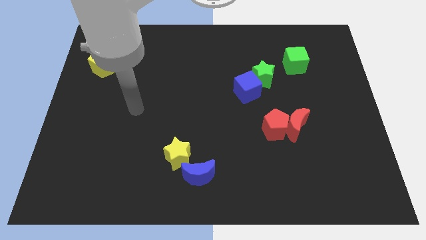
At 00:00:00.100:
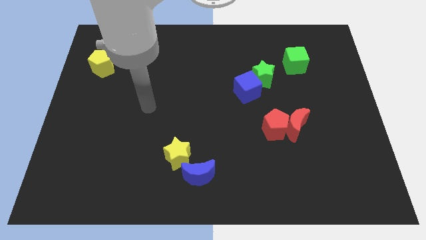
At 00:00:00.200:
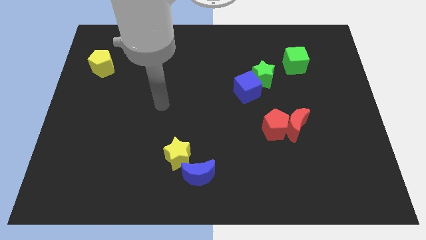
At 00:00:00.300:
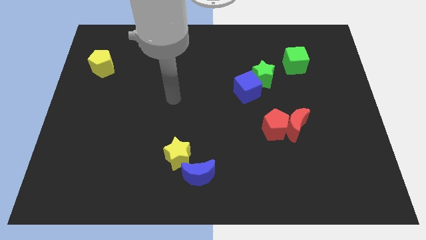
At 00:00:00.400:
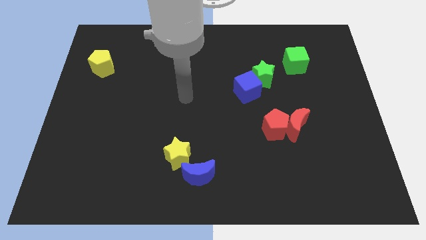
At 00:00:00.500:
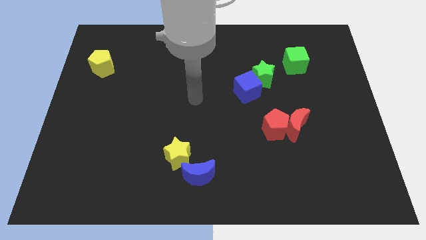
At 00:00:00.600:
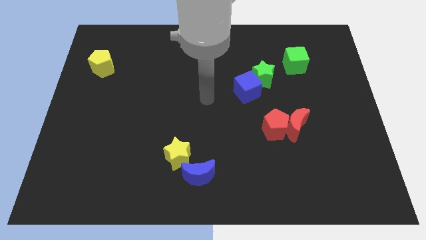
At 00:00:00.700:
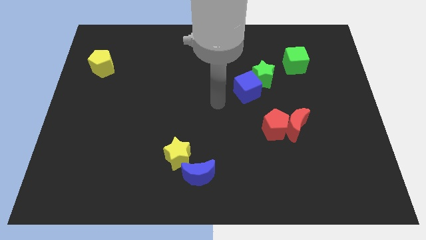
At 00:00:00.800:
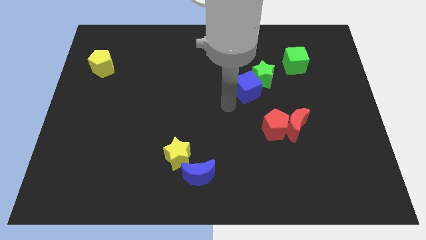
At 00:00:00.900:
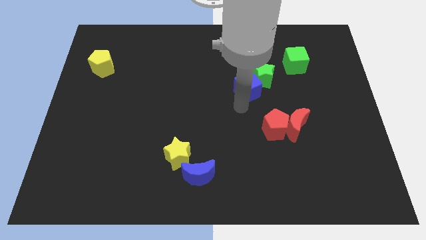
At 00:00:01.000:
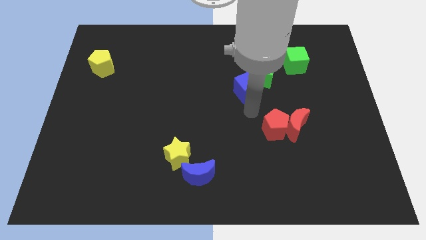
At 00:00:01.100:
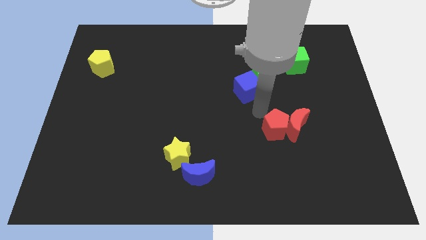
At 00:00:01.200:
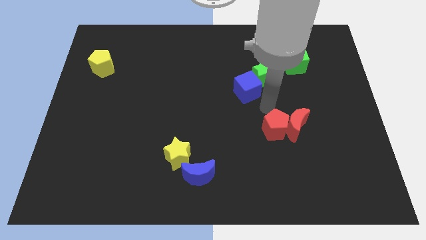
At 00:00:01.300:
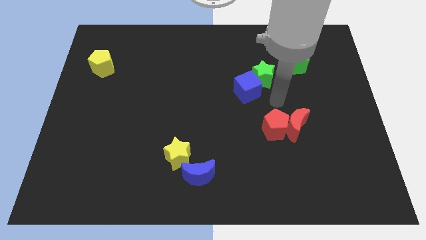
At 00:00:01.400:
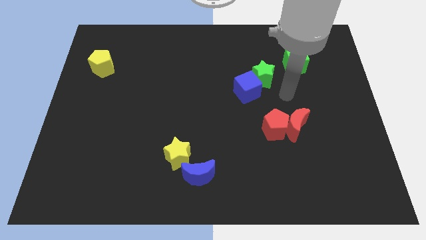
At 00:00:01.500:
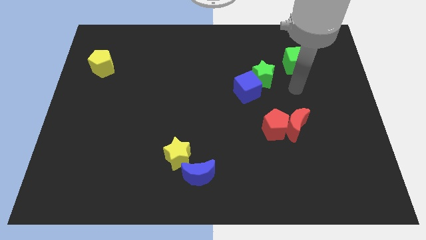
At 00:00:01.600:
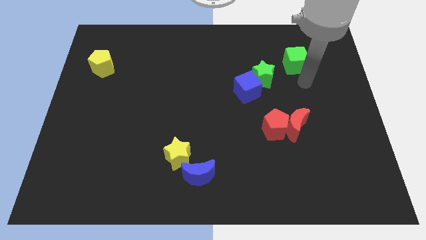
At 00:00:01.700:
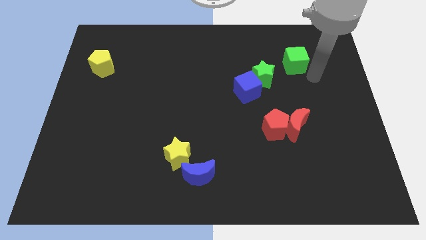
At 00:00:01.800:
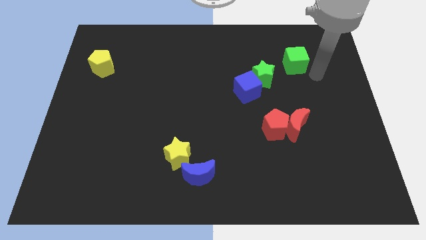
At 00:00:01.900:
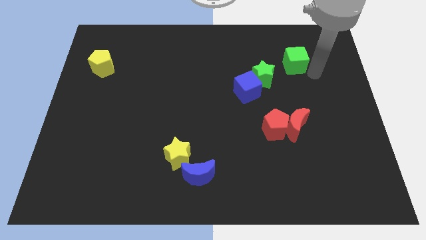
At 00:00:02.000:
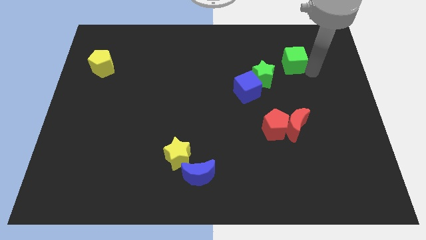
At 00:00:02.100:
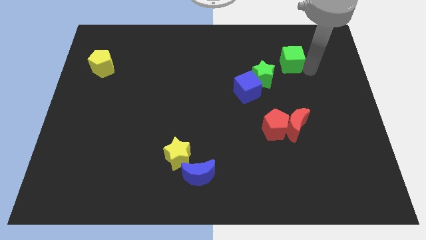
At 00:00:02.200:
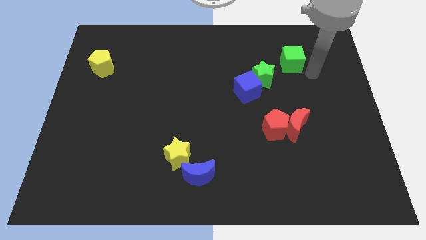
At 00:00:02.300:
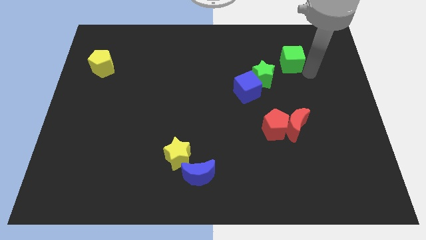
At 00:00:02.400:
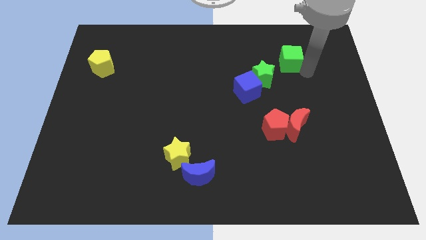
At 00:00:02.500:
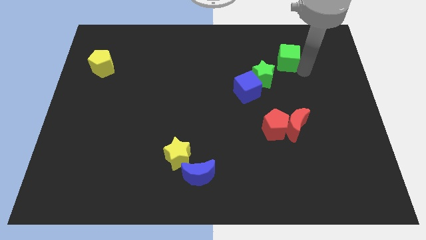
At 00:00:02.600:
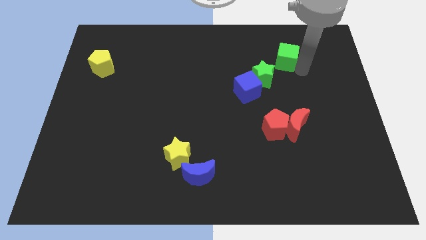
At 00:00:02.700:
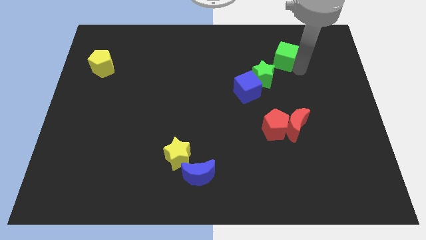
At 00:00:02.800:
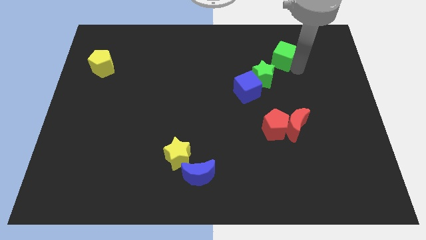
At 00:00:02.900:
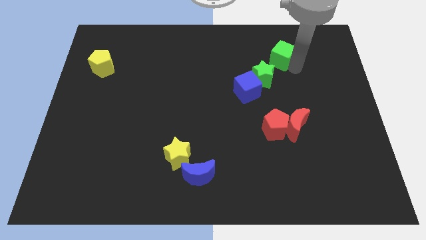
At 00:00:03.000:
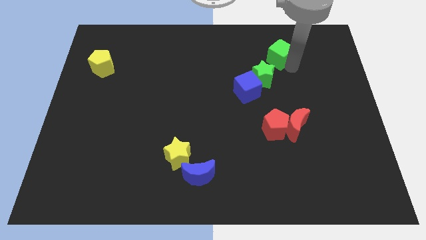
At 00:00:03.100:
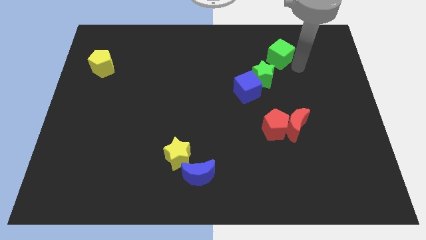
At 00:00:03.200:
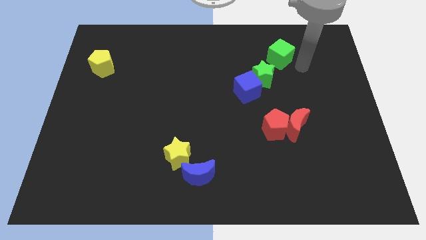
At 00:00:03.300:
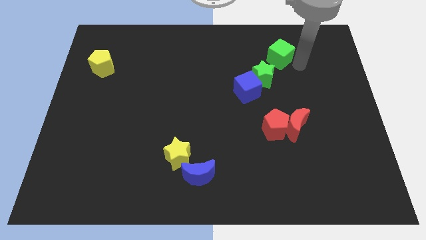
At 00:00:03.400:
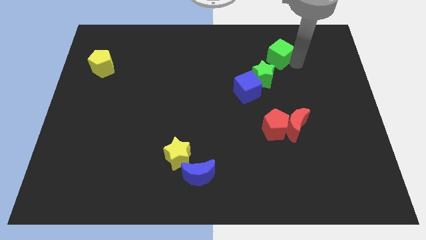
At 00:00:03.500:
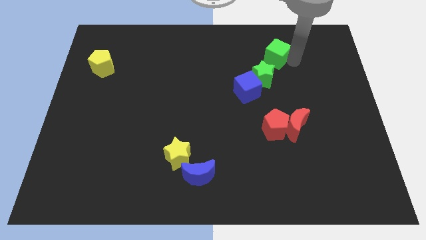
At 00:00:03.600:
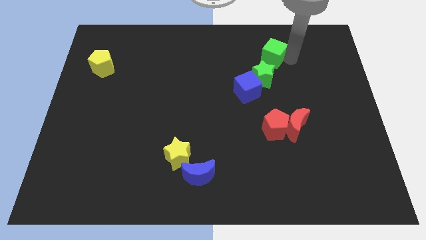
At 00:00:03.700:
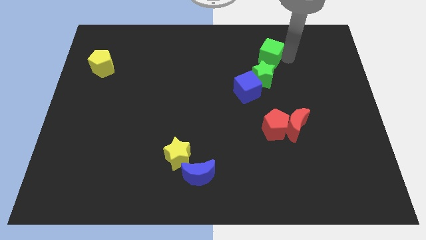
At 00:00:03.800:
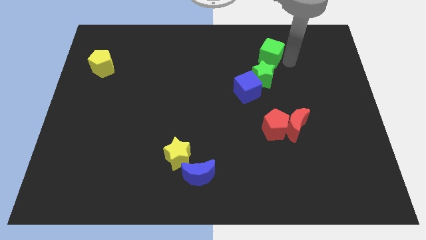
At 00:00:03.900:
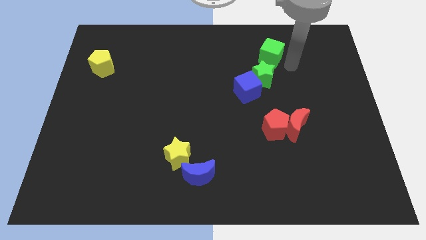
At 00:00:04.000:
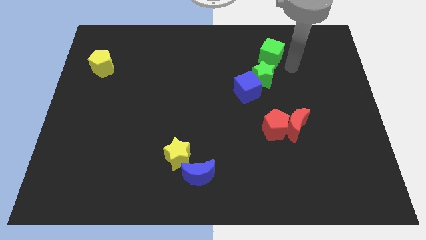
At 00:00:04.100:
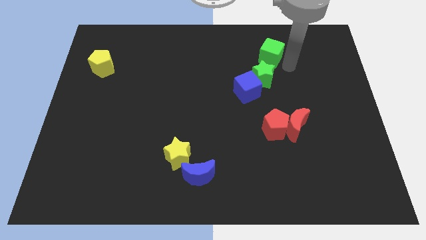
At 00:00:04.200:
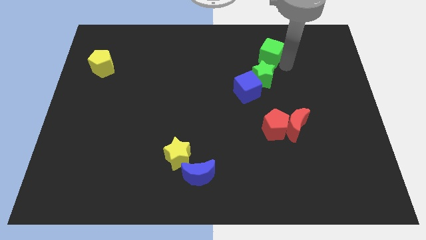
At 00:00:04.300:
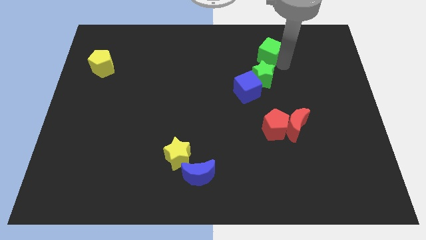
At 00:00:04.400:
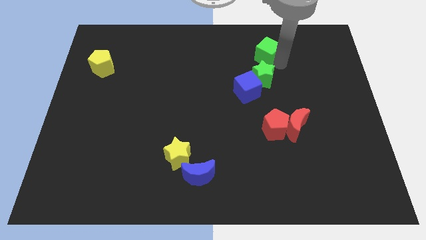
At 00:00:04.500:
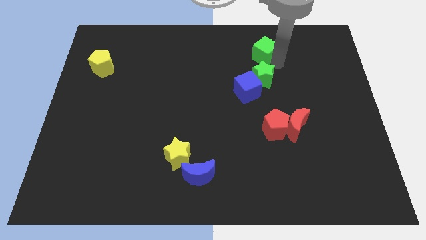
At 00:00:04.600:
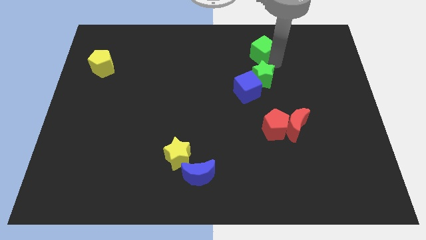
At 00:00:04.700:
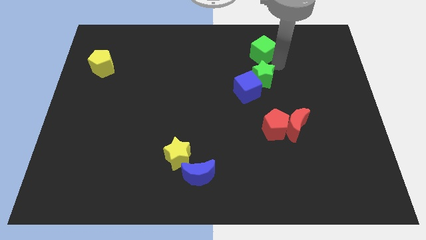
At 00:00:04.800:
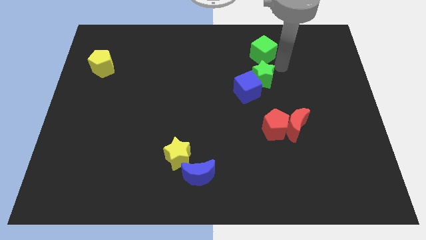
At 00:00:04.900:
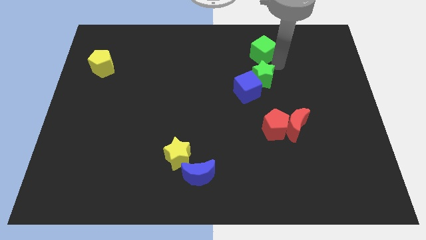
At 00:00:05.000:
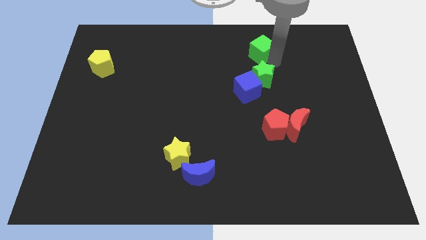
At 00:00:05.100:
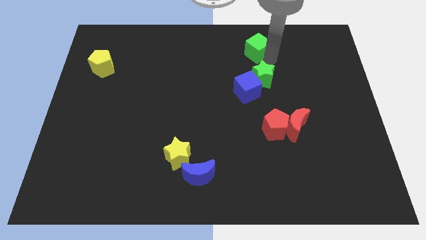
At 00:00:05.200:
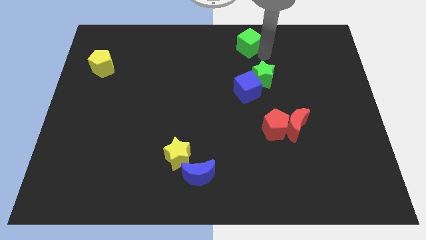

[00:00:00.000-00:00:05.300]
slide the green cube to the top side

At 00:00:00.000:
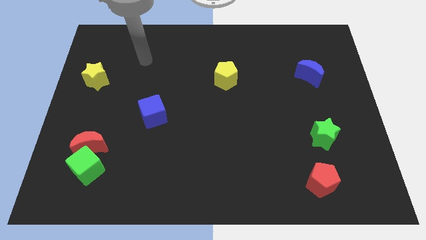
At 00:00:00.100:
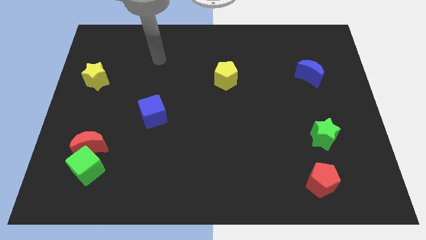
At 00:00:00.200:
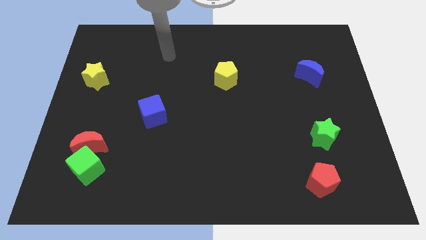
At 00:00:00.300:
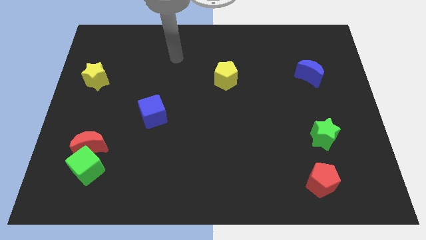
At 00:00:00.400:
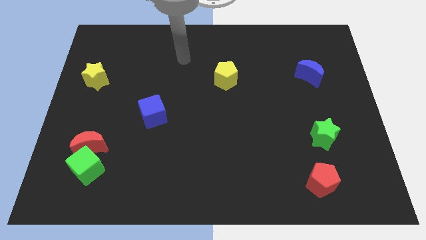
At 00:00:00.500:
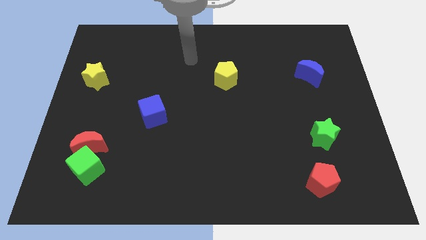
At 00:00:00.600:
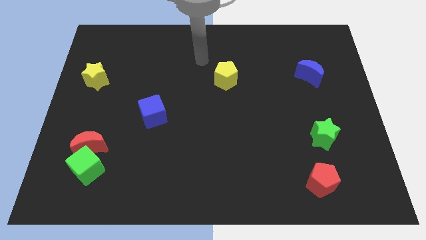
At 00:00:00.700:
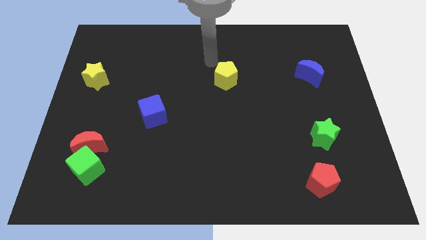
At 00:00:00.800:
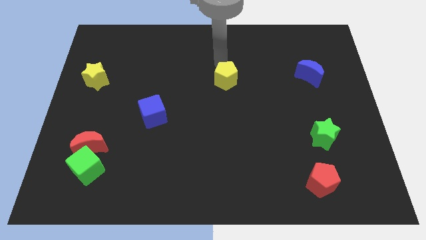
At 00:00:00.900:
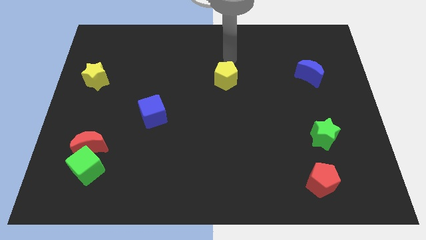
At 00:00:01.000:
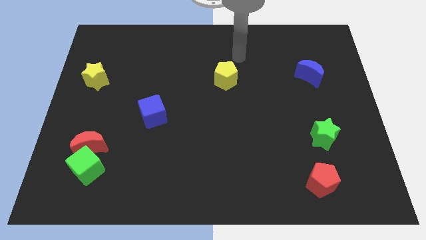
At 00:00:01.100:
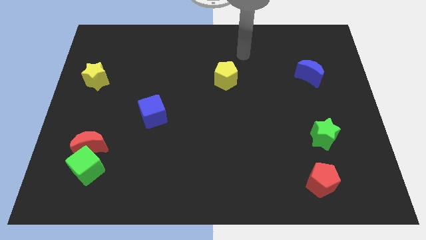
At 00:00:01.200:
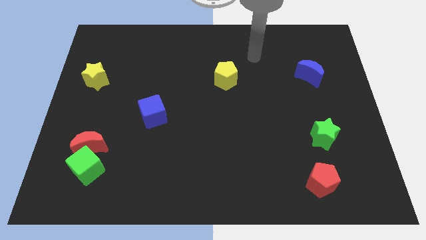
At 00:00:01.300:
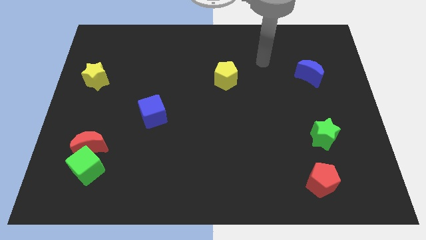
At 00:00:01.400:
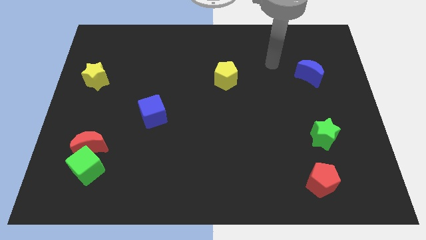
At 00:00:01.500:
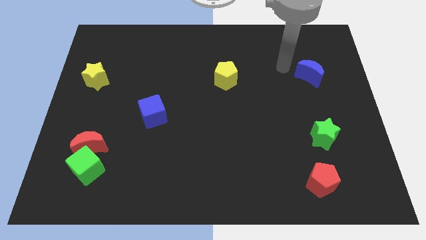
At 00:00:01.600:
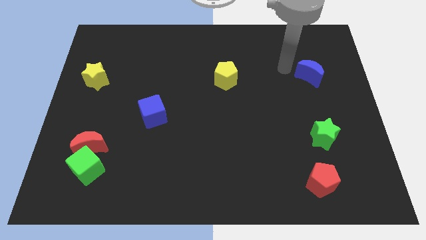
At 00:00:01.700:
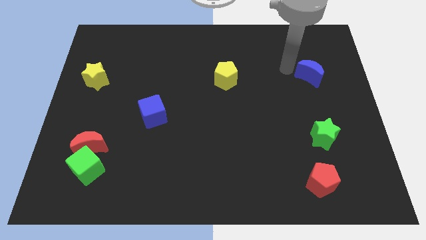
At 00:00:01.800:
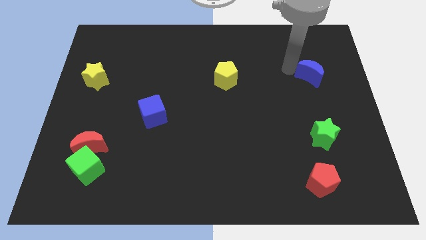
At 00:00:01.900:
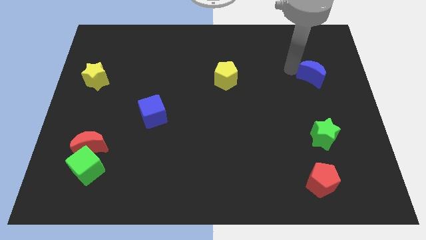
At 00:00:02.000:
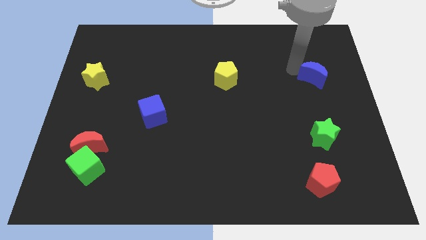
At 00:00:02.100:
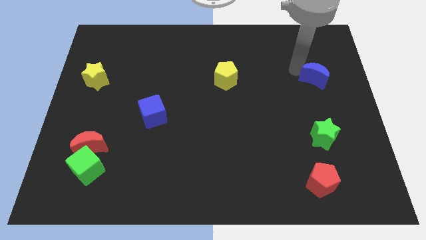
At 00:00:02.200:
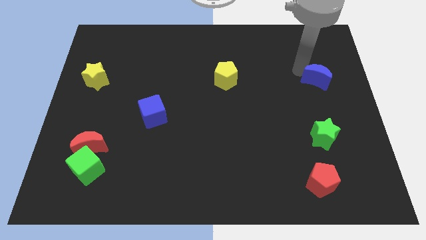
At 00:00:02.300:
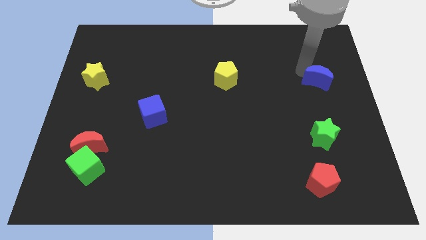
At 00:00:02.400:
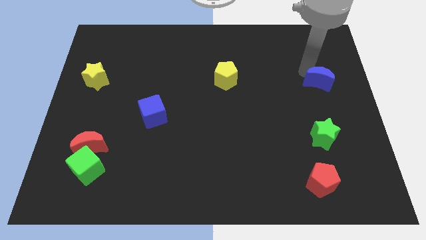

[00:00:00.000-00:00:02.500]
slide the blue moon to the right side
